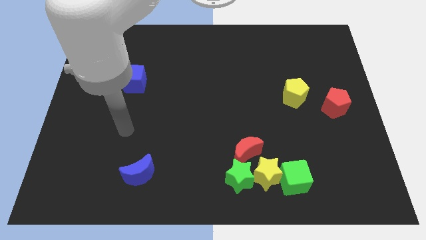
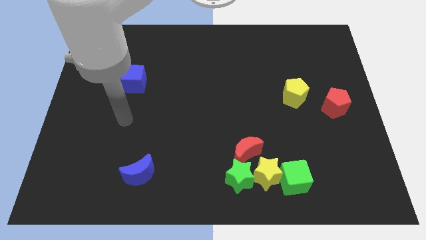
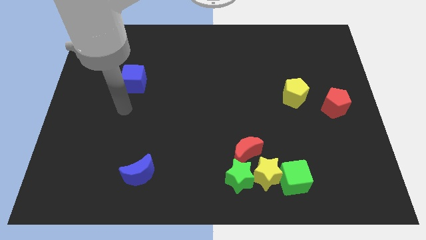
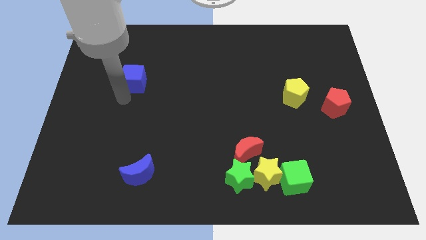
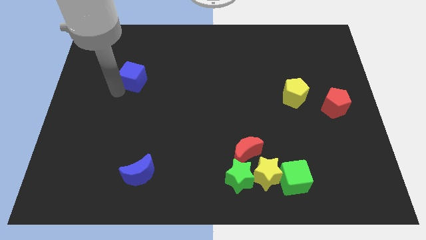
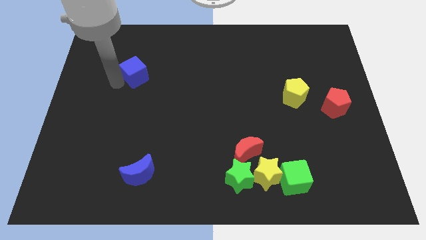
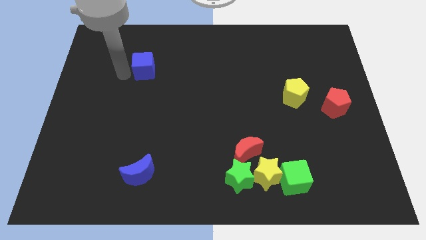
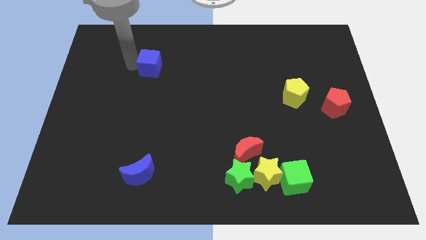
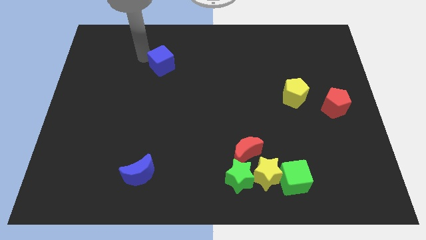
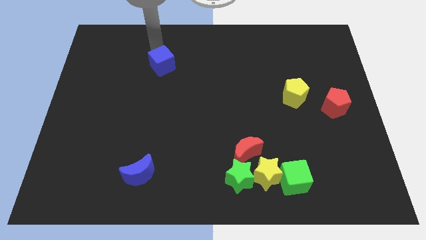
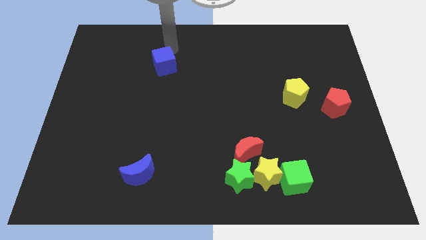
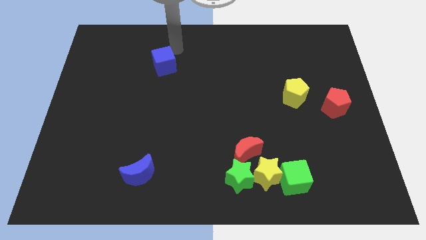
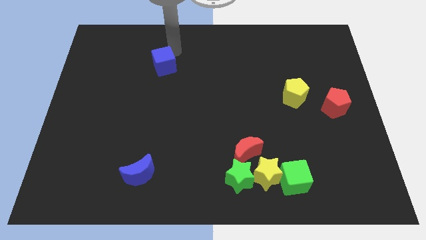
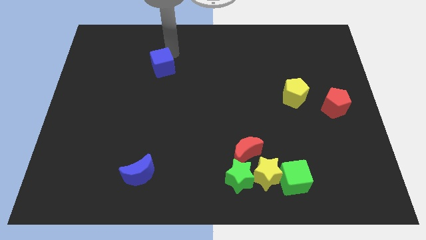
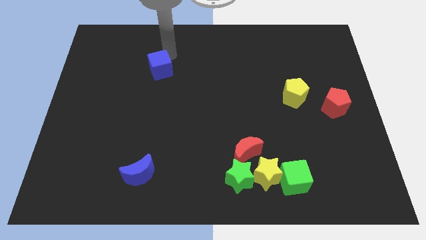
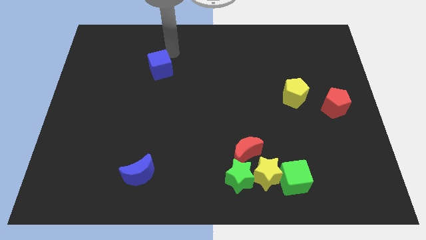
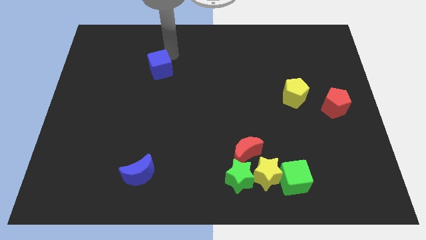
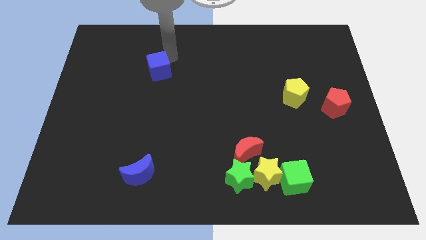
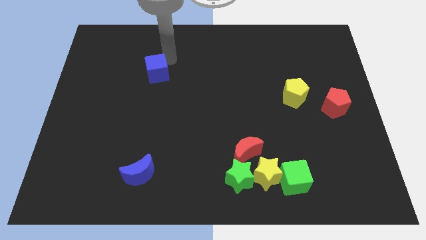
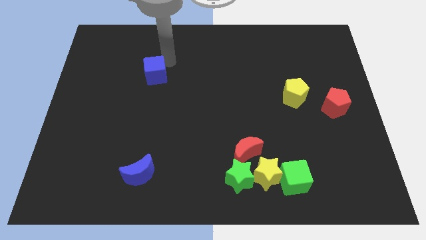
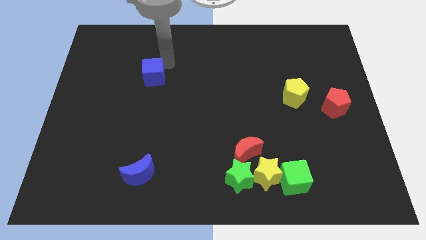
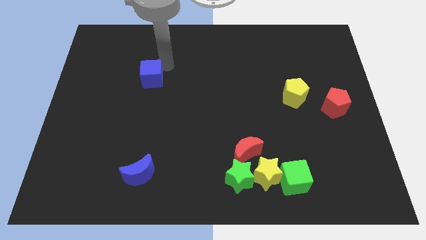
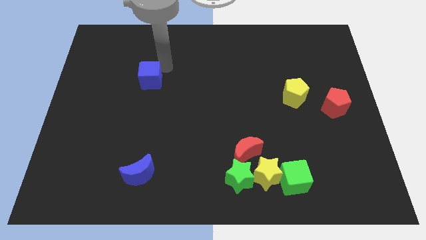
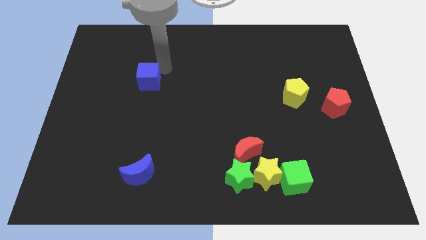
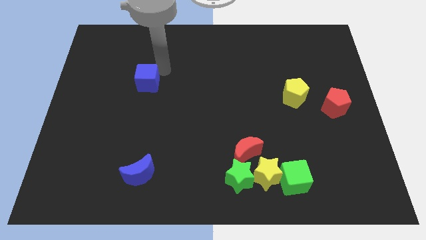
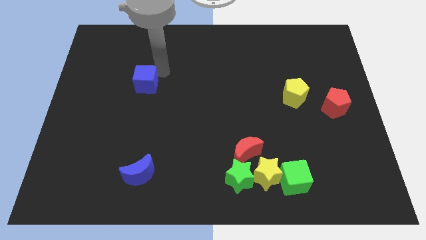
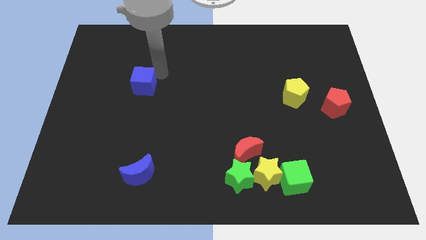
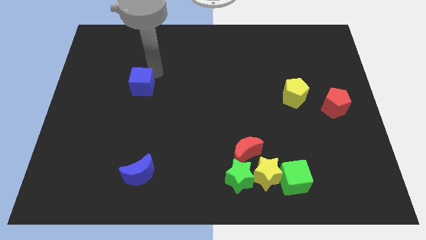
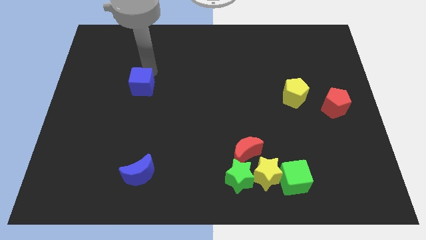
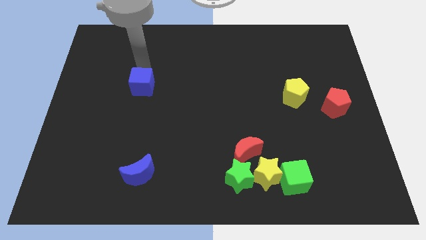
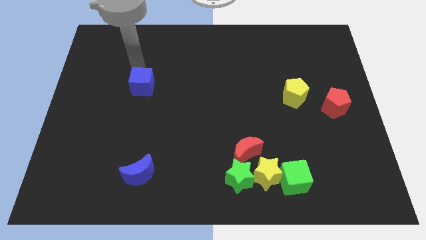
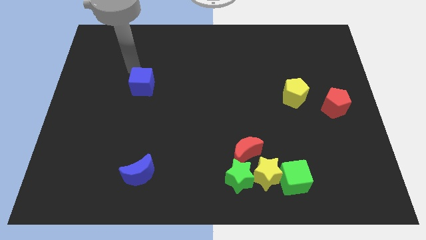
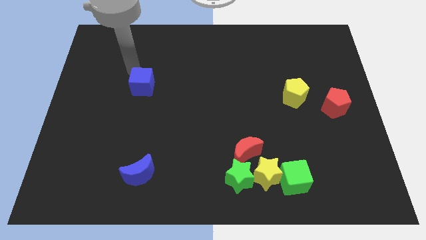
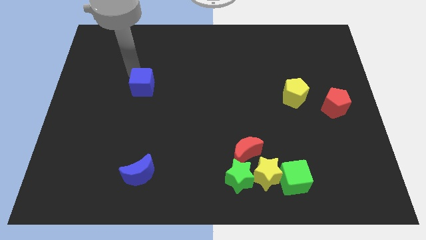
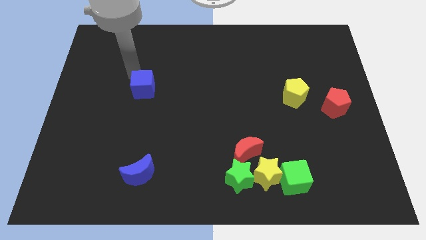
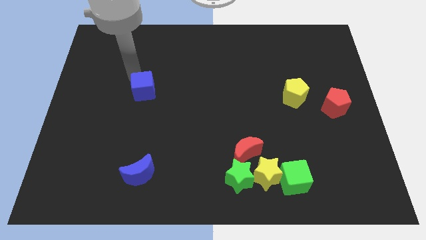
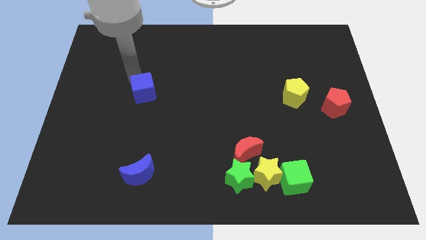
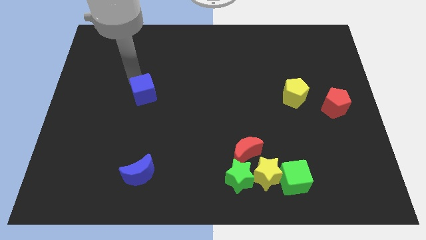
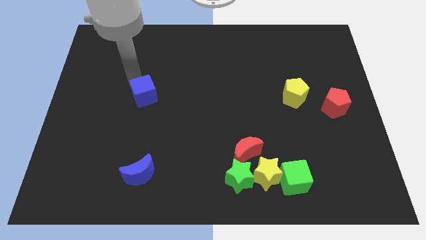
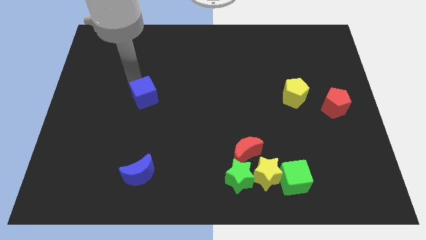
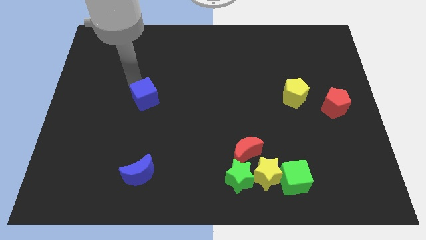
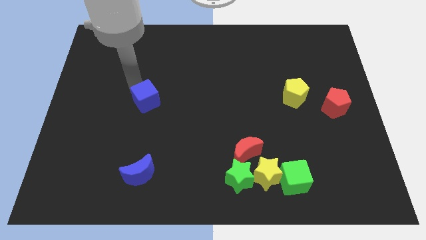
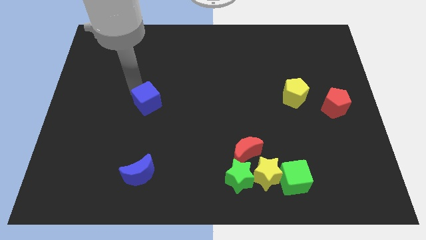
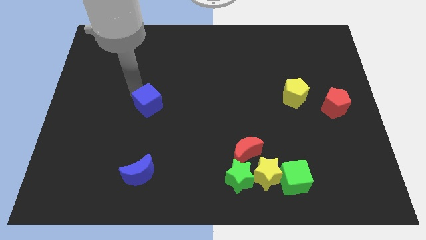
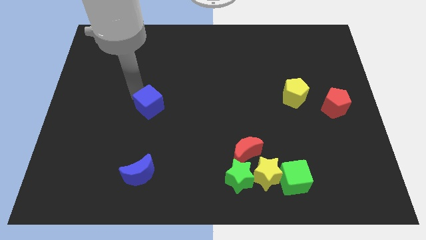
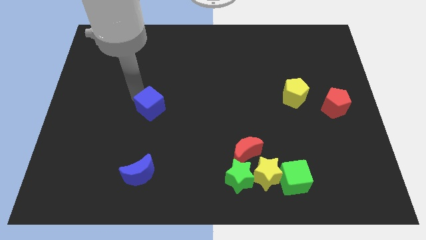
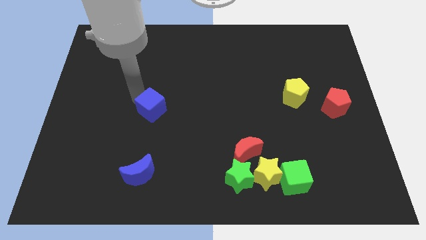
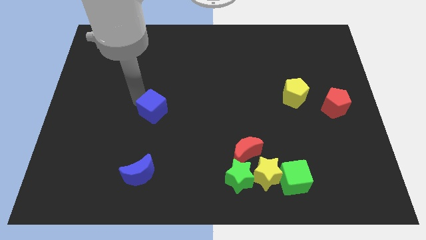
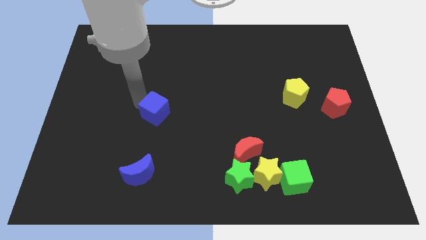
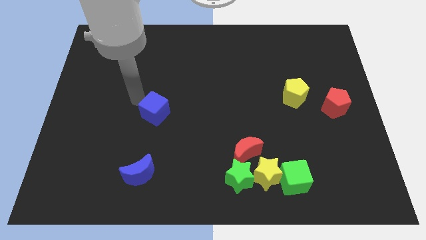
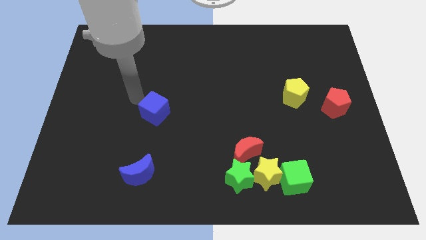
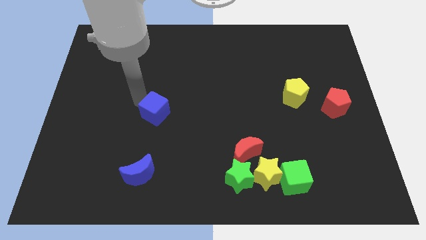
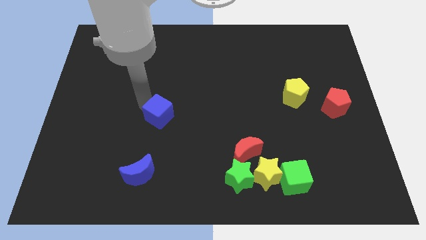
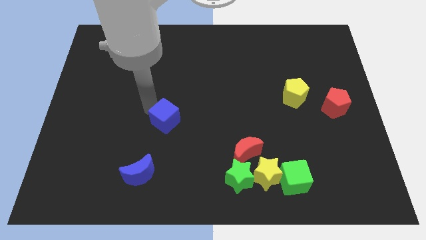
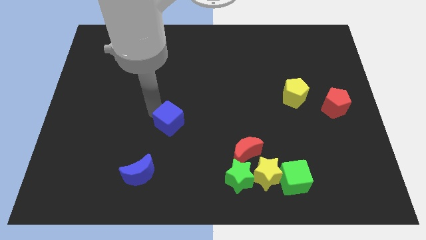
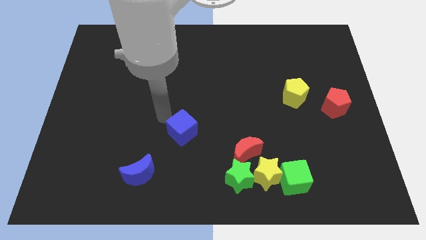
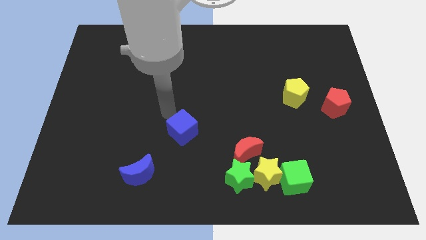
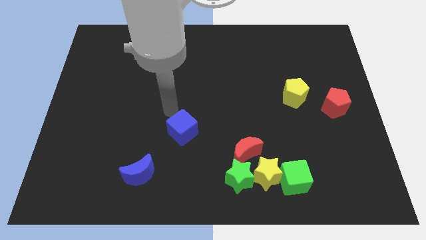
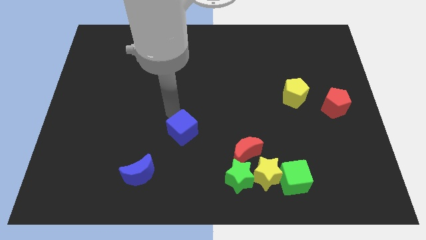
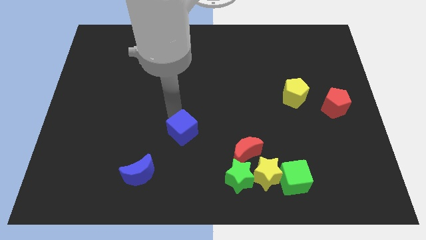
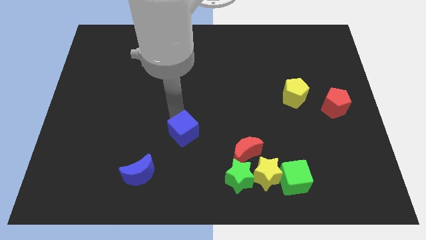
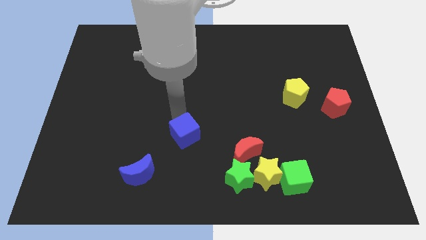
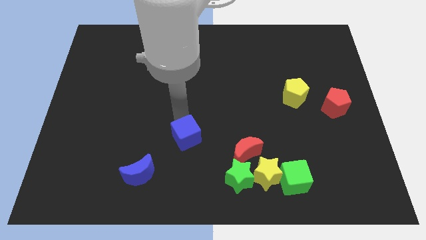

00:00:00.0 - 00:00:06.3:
move the blue cube to the left of the red moon

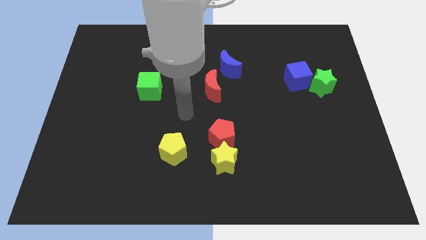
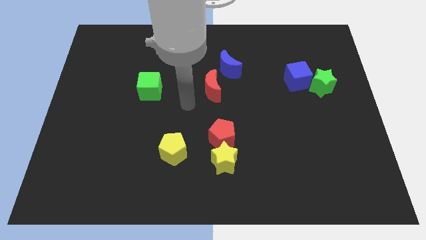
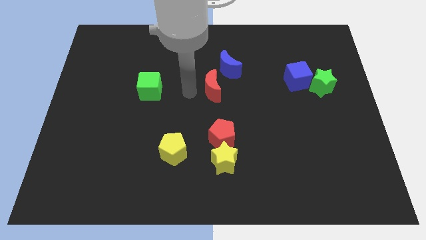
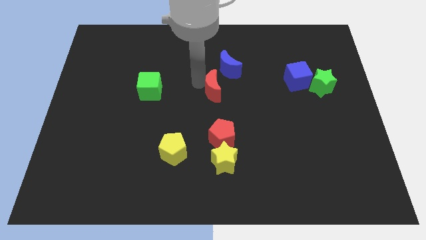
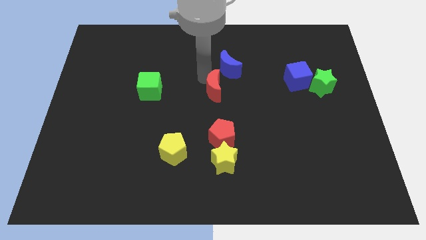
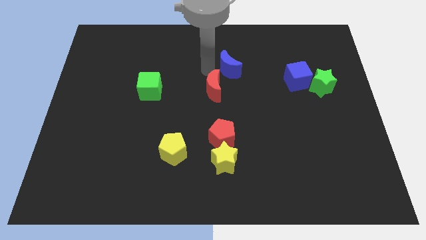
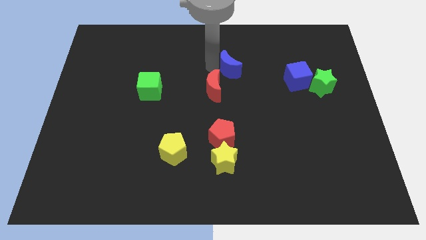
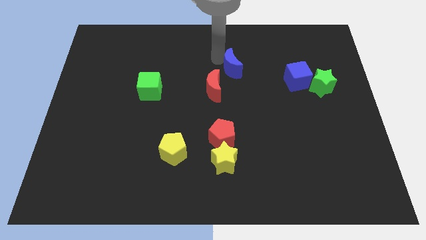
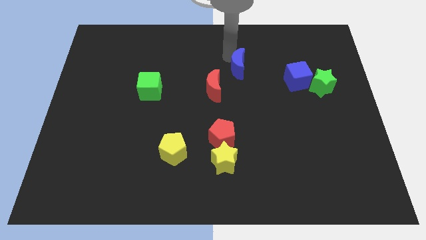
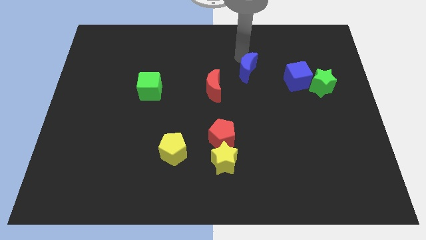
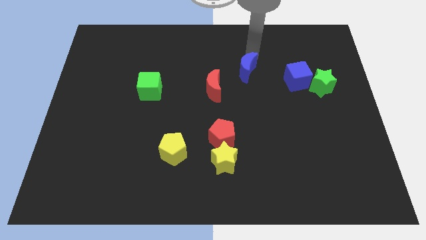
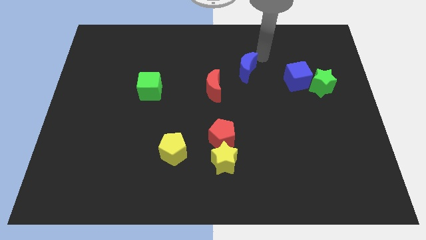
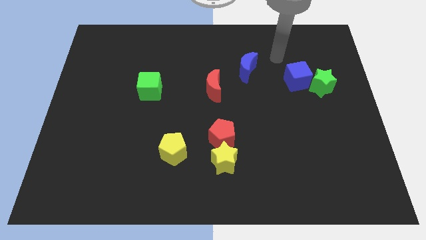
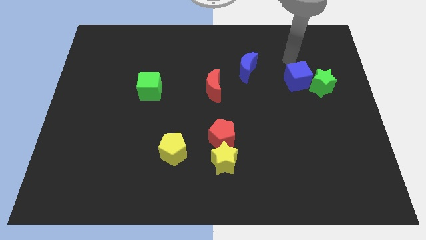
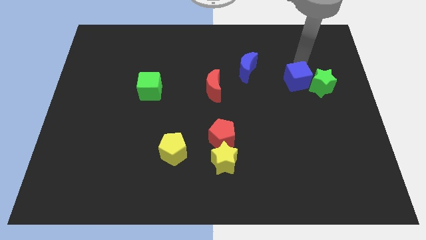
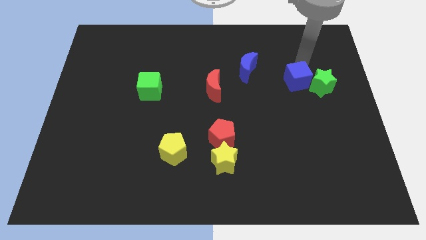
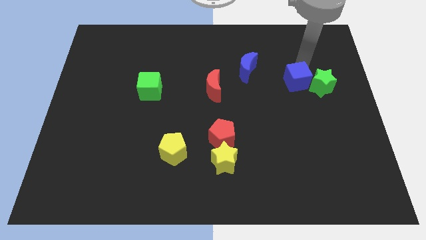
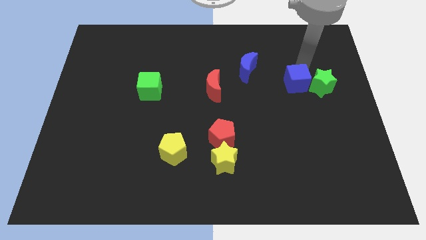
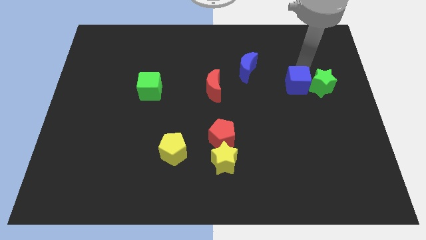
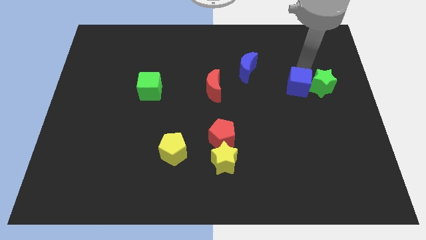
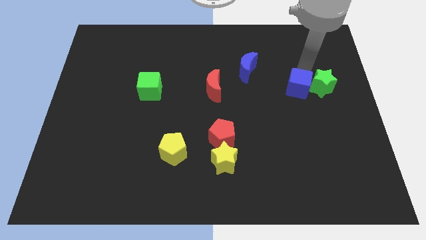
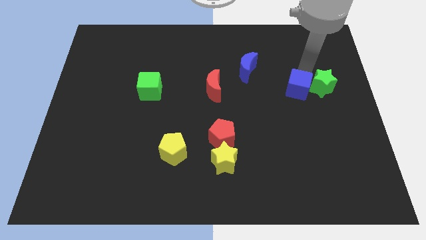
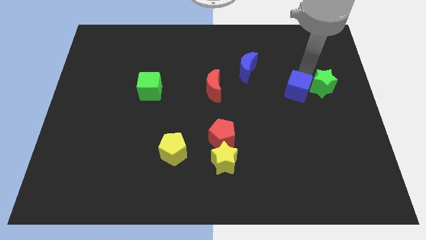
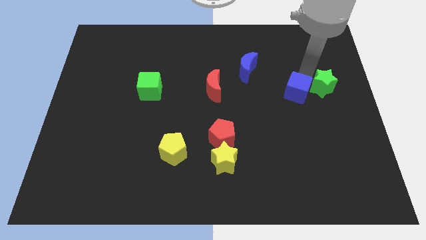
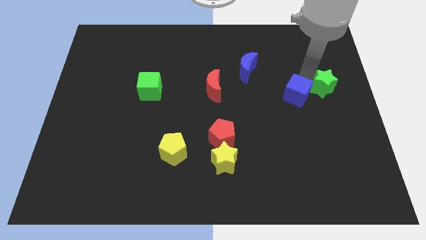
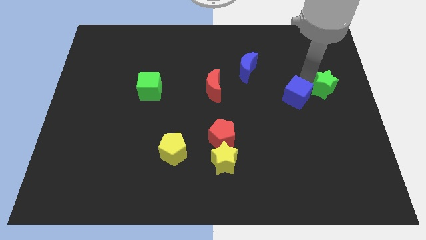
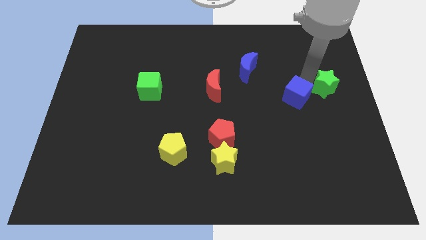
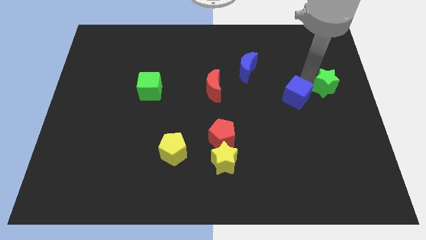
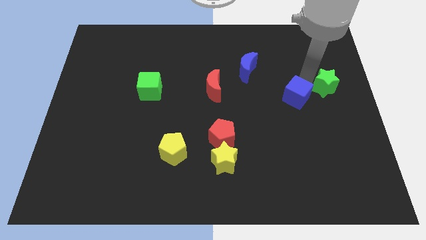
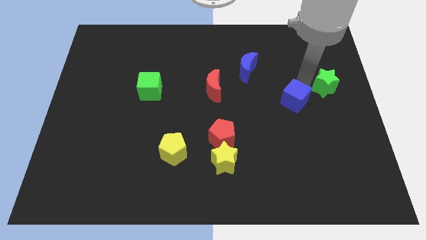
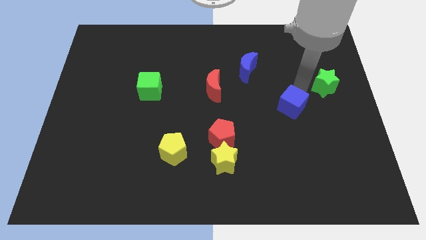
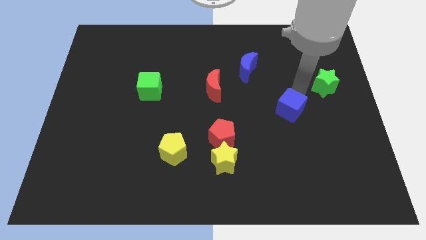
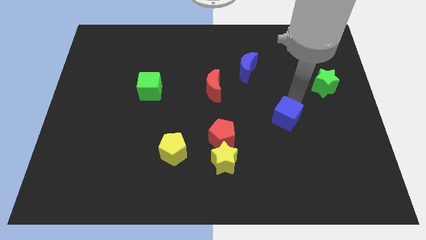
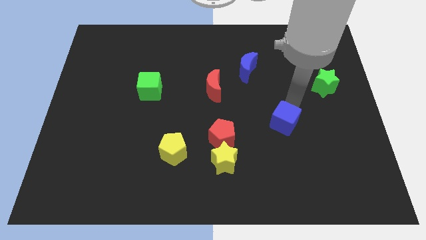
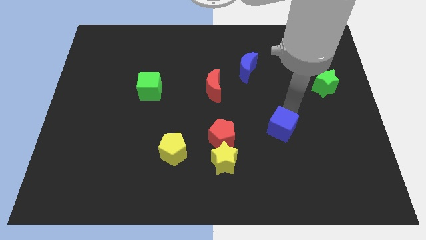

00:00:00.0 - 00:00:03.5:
slide the blue cube to the right side of the red pentagon
